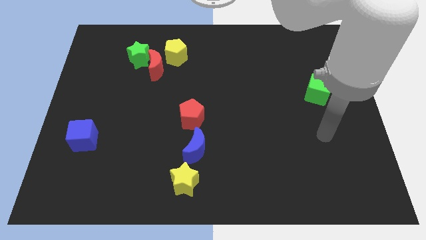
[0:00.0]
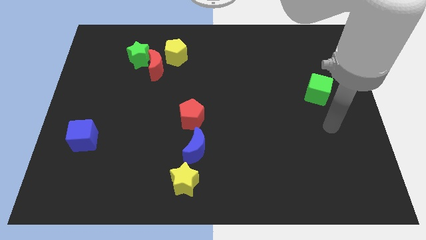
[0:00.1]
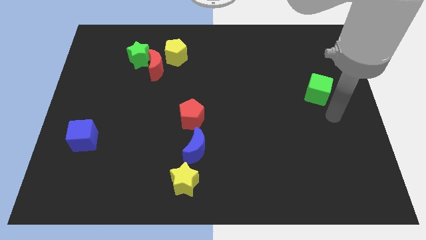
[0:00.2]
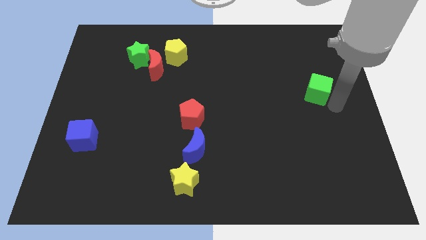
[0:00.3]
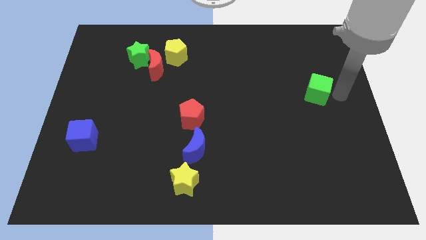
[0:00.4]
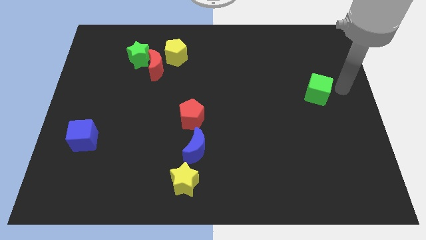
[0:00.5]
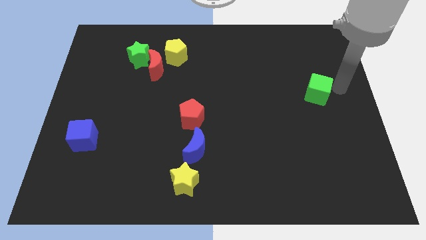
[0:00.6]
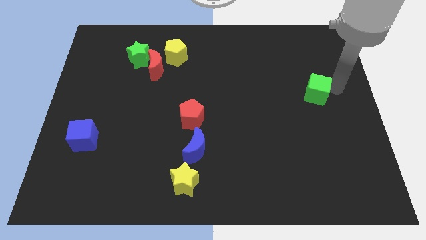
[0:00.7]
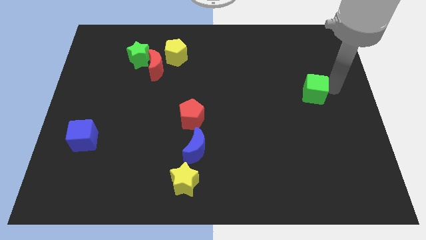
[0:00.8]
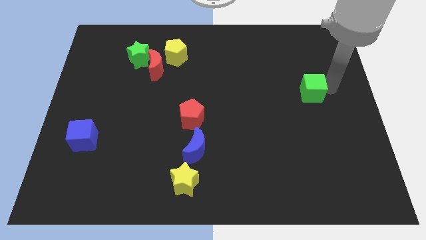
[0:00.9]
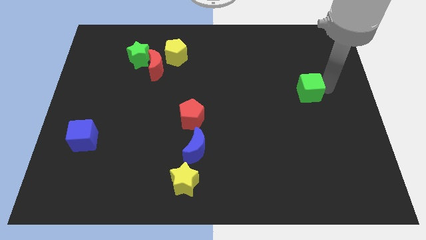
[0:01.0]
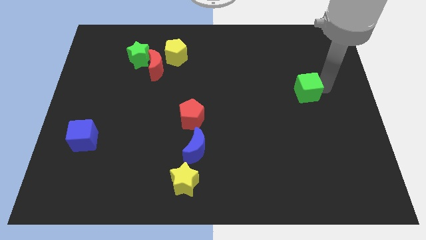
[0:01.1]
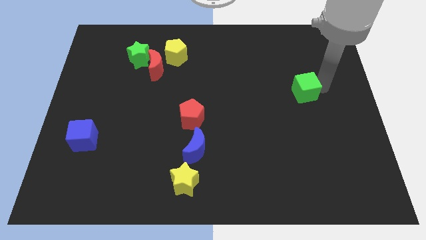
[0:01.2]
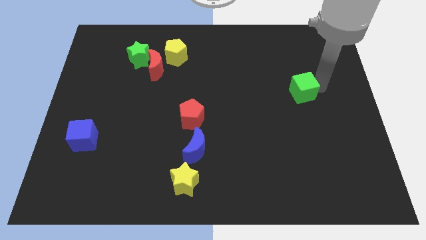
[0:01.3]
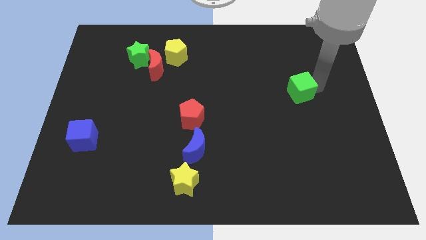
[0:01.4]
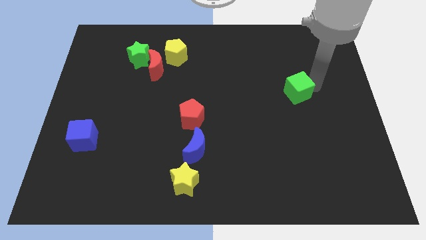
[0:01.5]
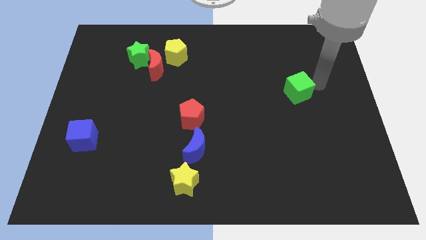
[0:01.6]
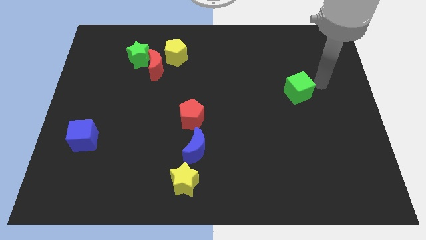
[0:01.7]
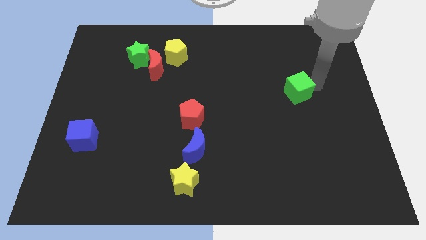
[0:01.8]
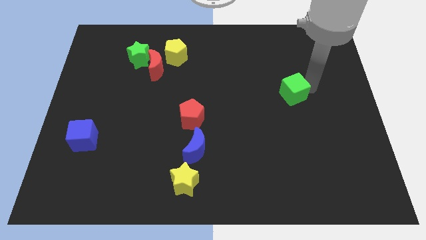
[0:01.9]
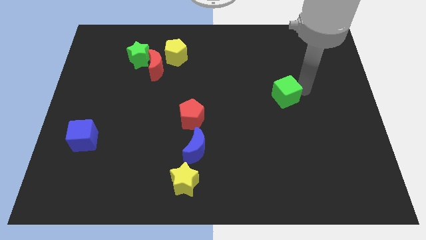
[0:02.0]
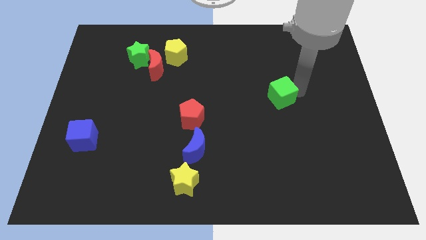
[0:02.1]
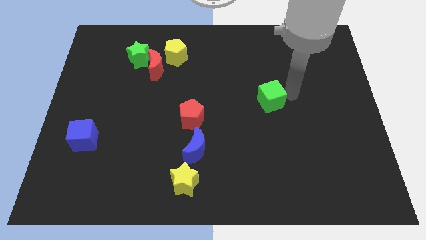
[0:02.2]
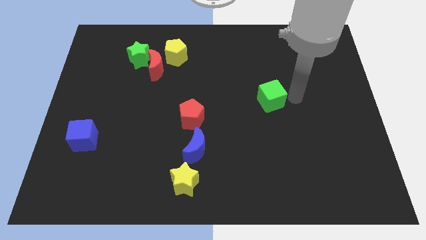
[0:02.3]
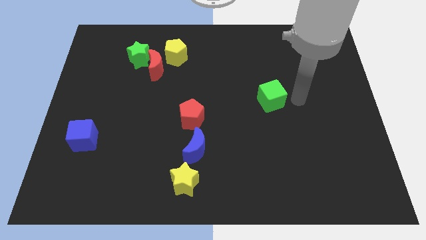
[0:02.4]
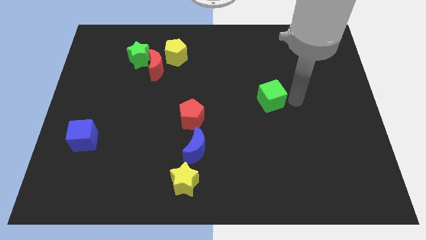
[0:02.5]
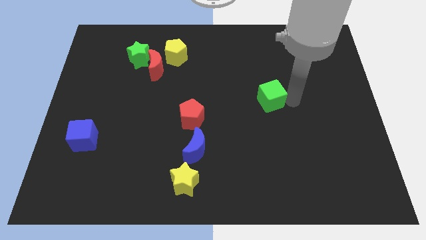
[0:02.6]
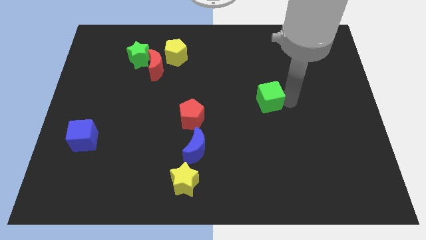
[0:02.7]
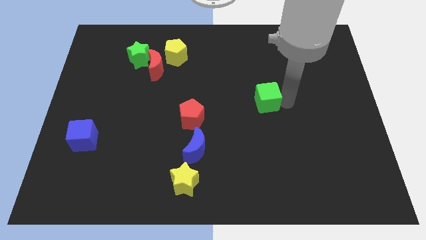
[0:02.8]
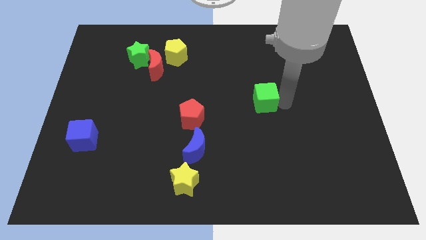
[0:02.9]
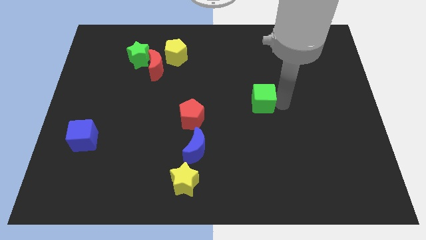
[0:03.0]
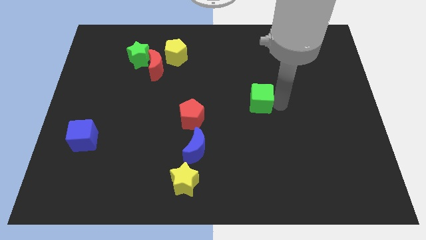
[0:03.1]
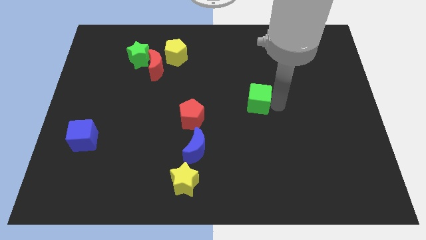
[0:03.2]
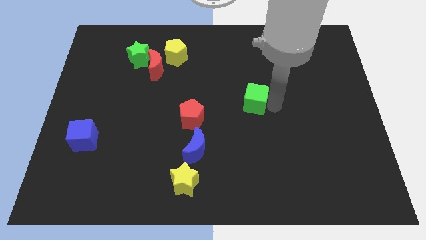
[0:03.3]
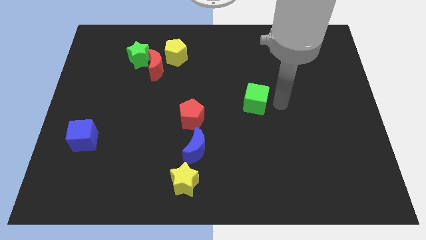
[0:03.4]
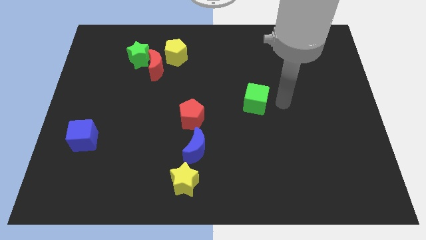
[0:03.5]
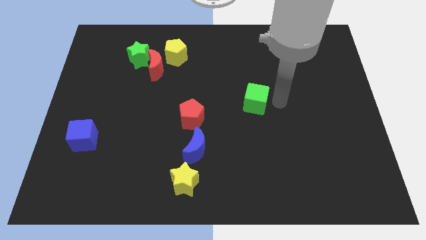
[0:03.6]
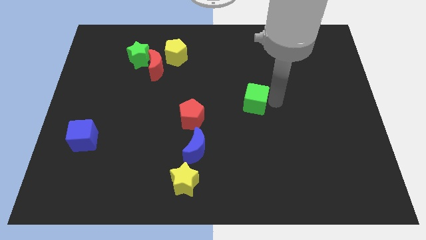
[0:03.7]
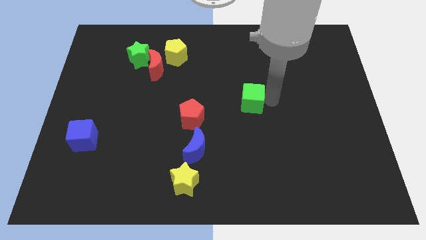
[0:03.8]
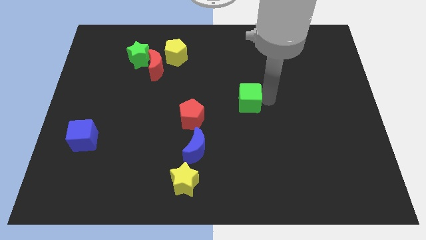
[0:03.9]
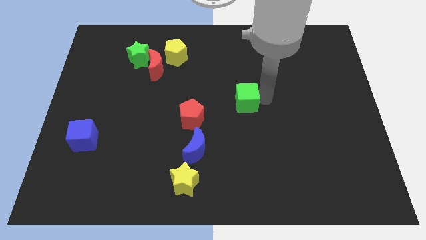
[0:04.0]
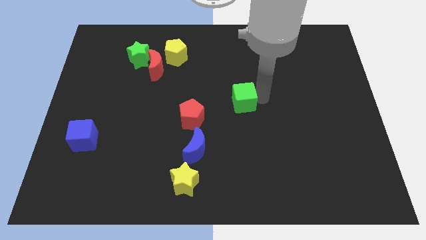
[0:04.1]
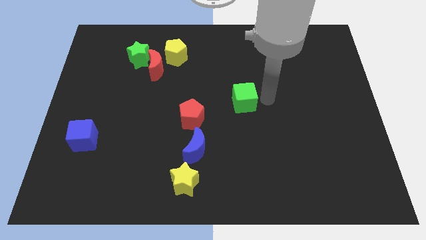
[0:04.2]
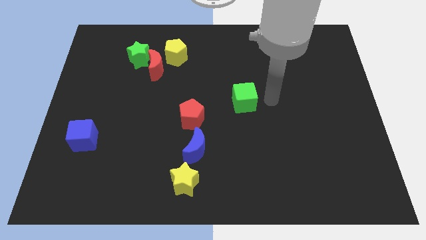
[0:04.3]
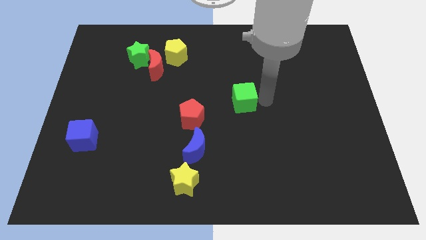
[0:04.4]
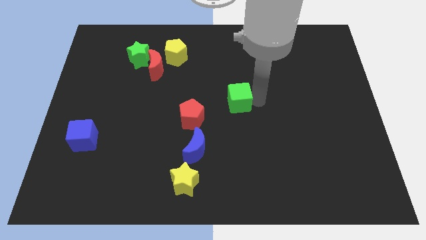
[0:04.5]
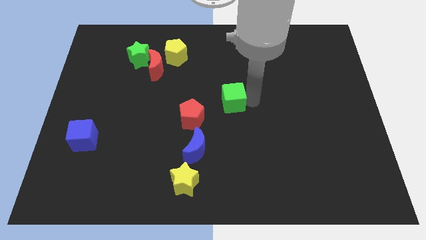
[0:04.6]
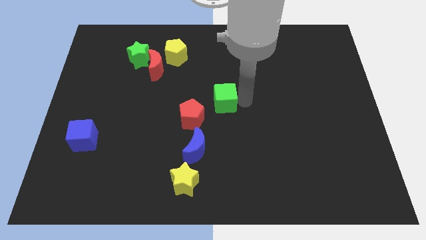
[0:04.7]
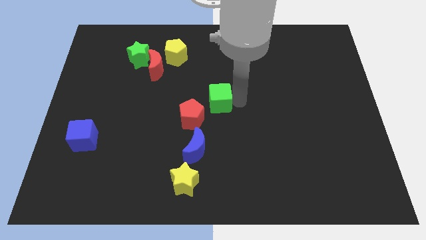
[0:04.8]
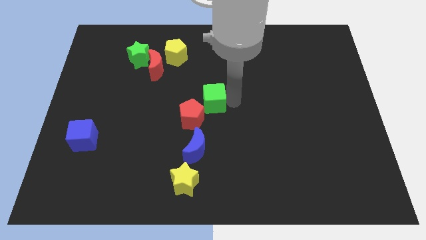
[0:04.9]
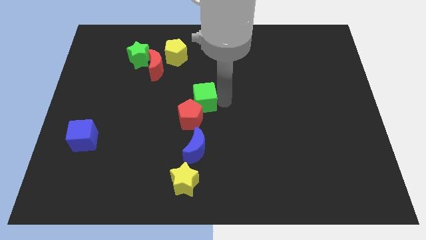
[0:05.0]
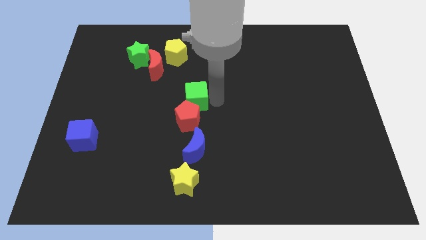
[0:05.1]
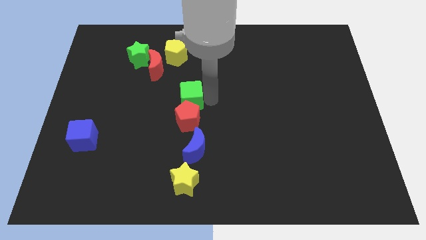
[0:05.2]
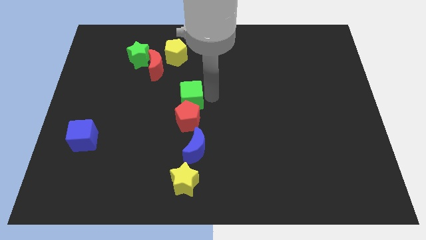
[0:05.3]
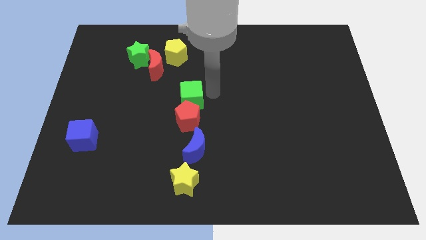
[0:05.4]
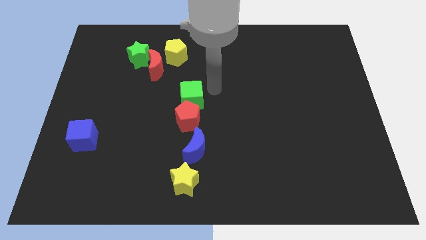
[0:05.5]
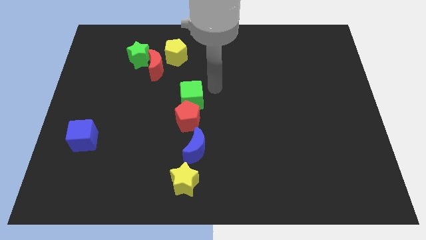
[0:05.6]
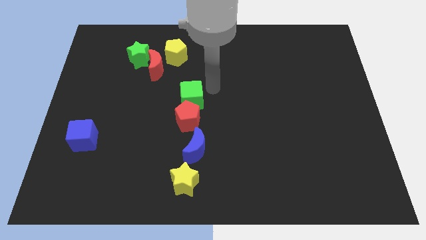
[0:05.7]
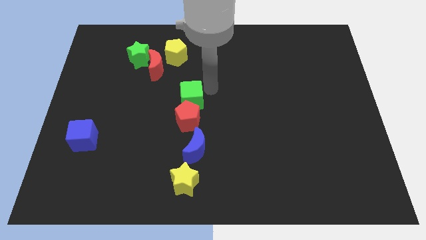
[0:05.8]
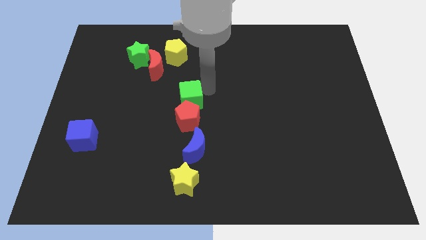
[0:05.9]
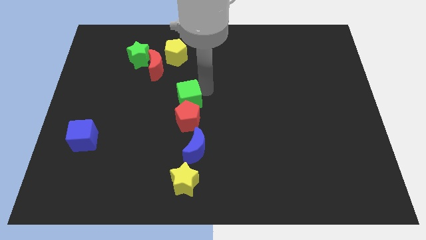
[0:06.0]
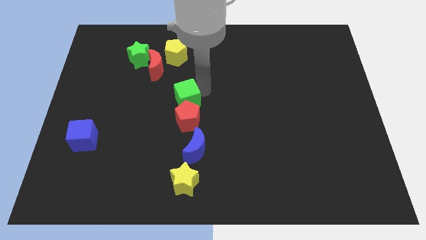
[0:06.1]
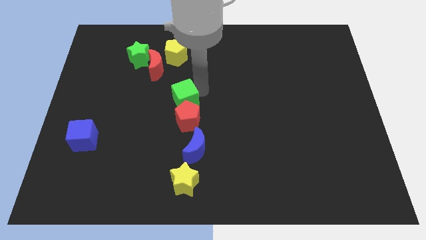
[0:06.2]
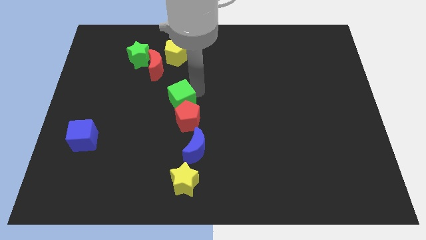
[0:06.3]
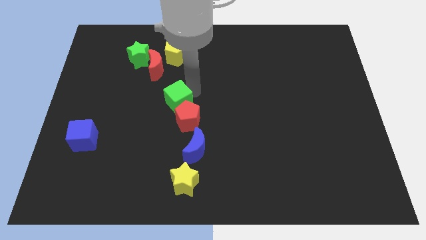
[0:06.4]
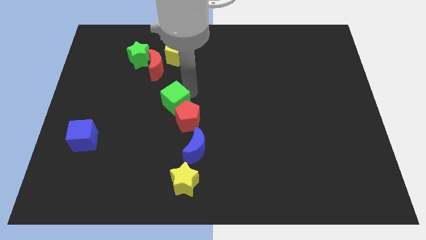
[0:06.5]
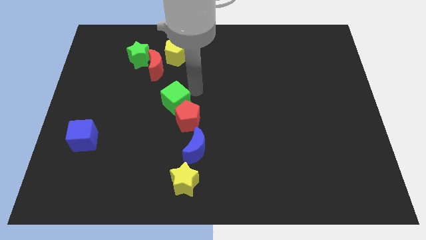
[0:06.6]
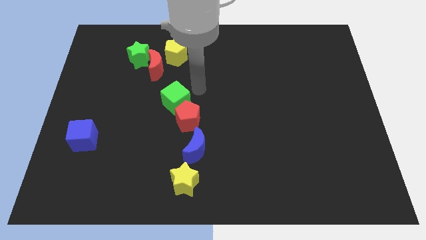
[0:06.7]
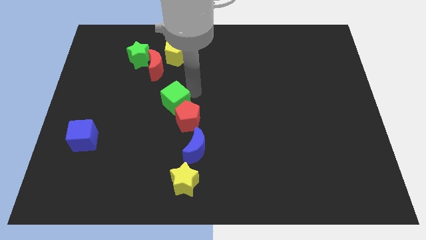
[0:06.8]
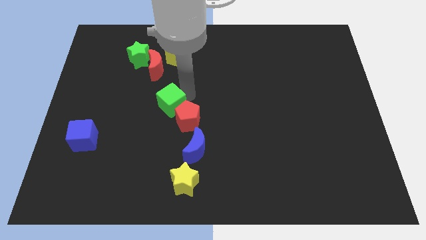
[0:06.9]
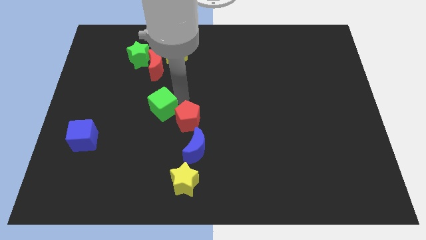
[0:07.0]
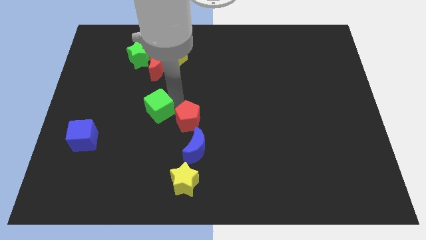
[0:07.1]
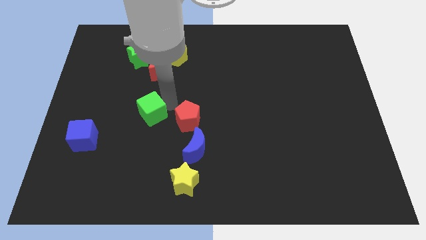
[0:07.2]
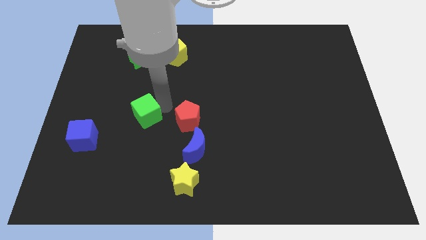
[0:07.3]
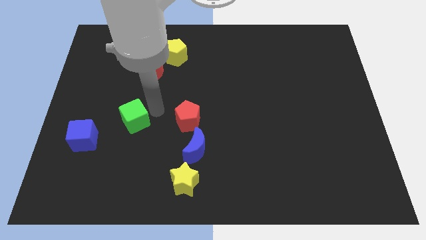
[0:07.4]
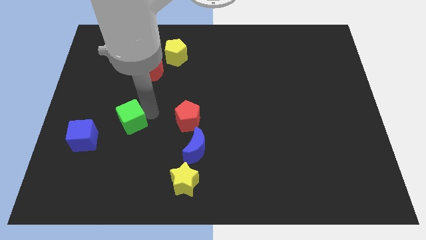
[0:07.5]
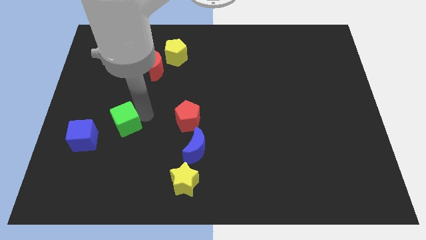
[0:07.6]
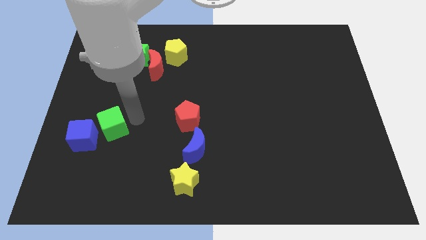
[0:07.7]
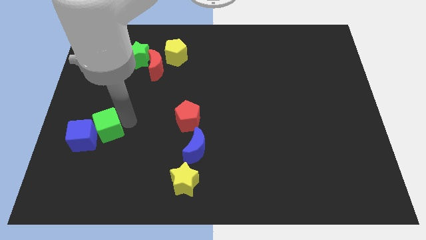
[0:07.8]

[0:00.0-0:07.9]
slide the green cube close to the blue cube
